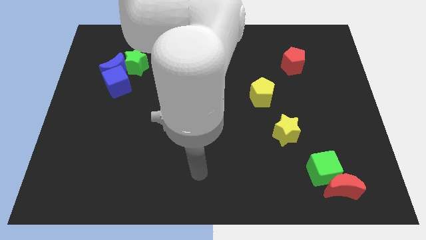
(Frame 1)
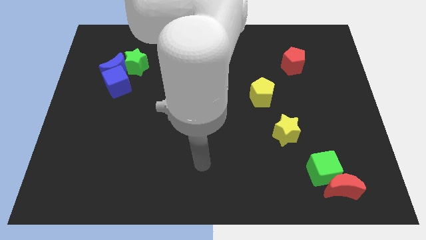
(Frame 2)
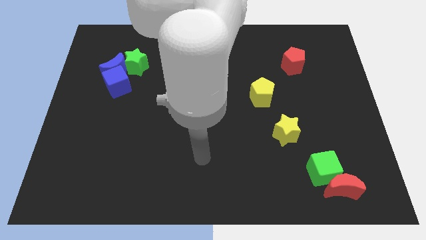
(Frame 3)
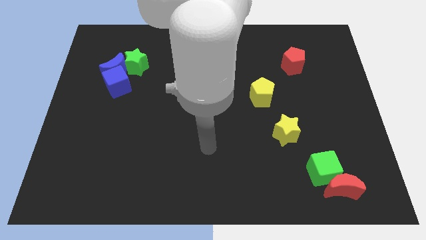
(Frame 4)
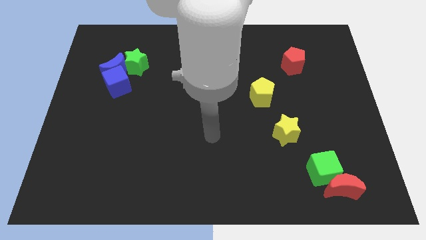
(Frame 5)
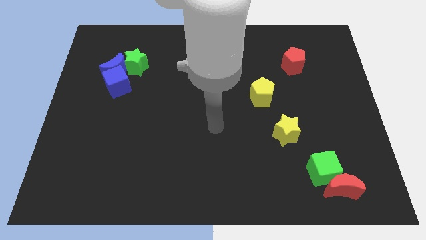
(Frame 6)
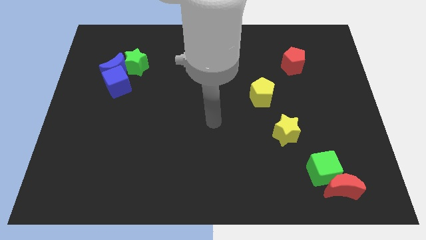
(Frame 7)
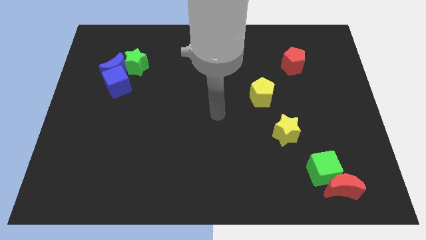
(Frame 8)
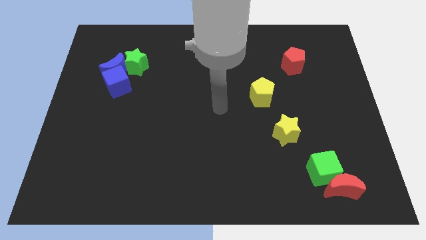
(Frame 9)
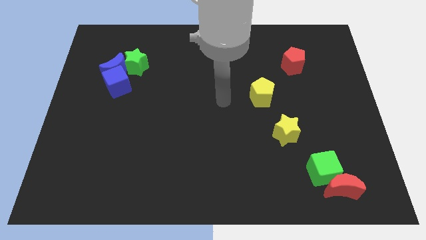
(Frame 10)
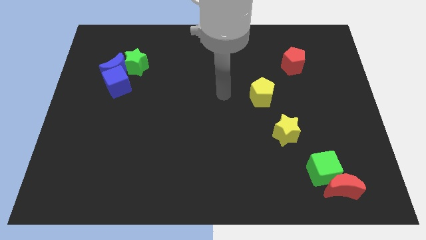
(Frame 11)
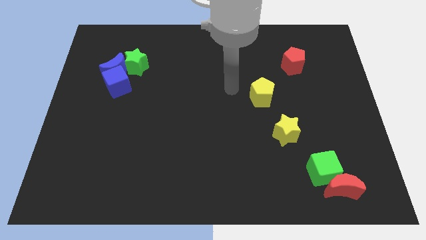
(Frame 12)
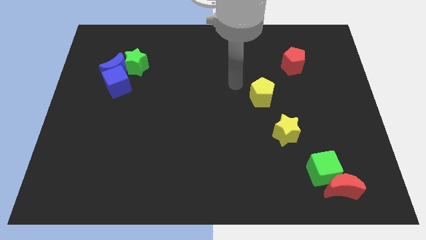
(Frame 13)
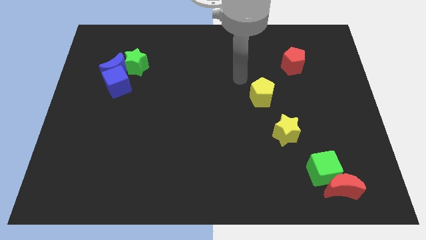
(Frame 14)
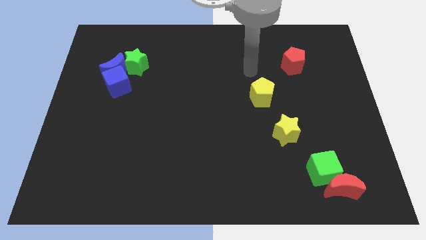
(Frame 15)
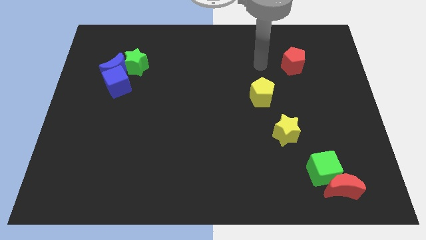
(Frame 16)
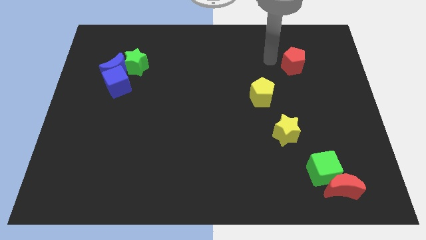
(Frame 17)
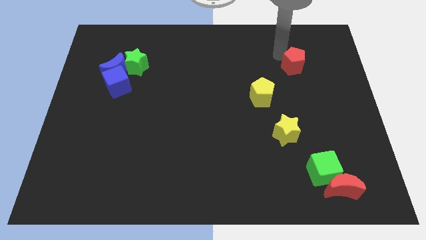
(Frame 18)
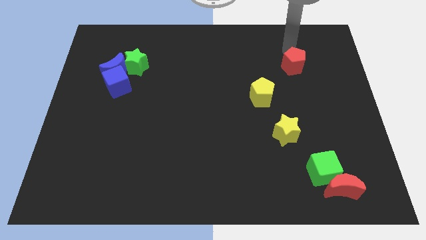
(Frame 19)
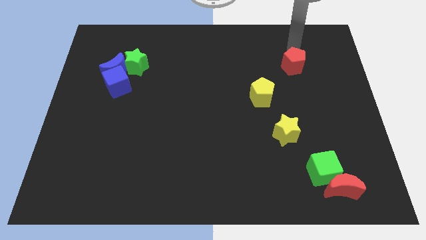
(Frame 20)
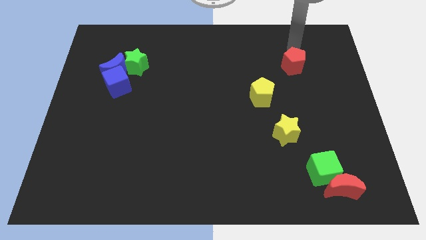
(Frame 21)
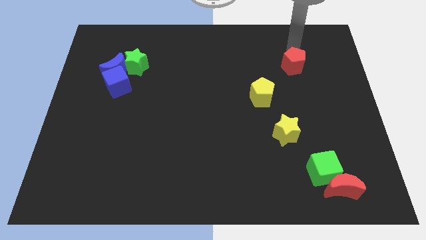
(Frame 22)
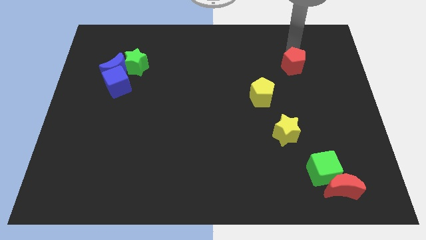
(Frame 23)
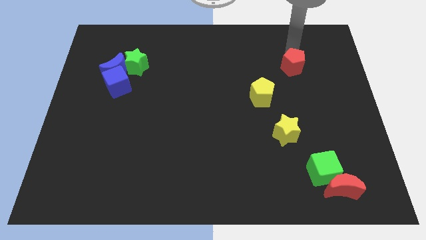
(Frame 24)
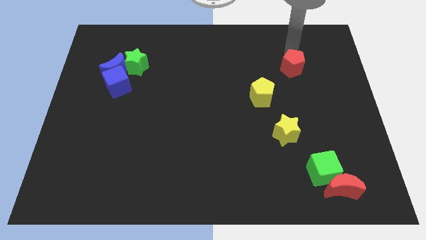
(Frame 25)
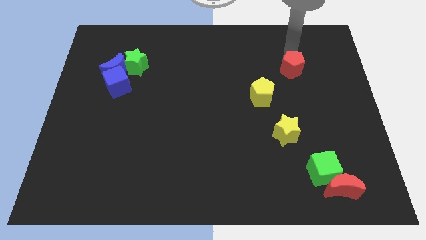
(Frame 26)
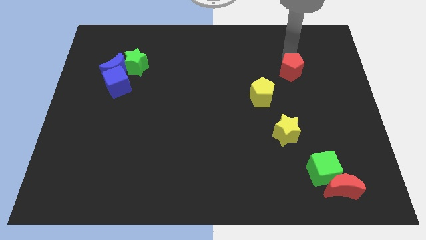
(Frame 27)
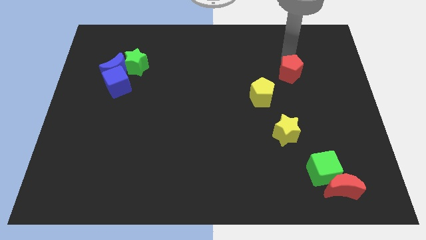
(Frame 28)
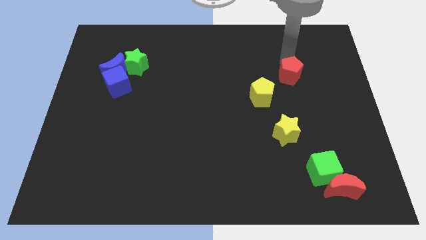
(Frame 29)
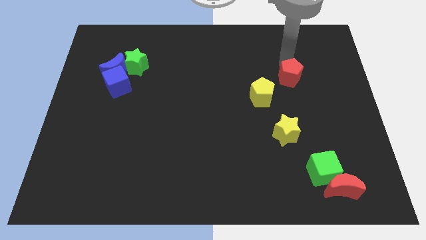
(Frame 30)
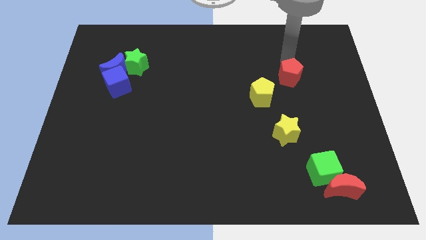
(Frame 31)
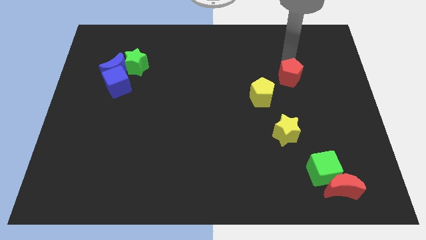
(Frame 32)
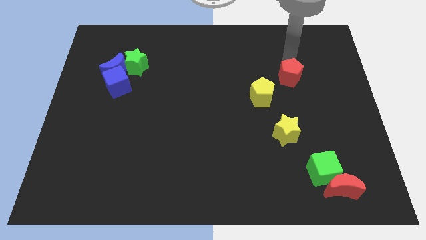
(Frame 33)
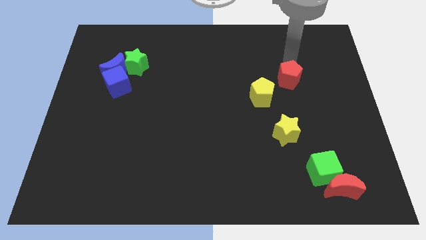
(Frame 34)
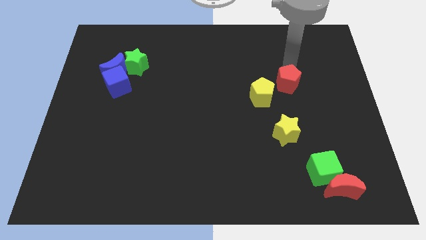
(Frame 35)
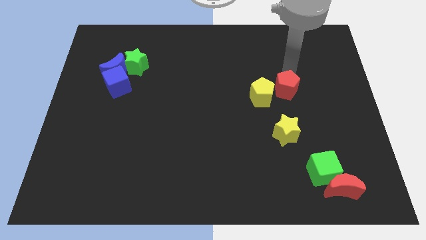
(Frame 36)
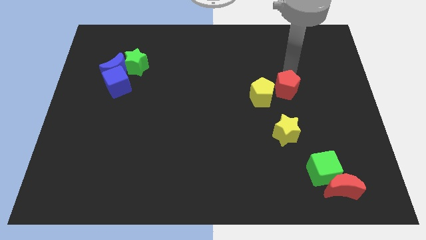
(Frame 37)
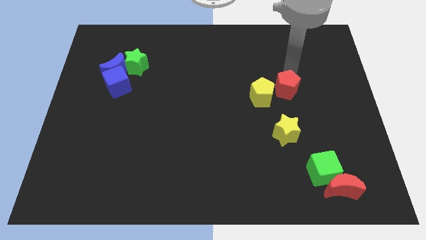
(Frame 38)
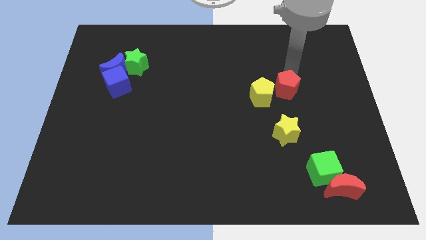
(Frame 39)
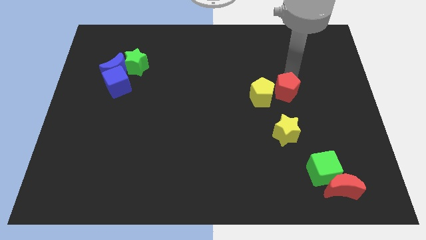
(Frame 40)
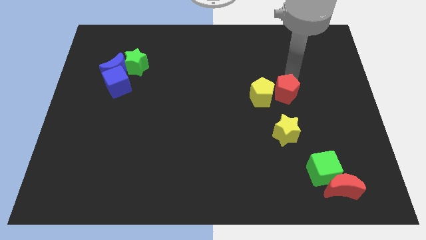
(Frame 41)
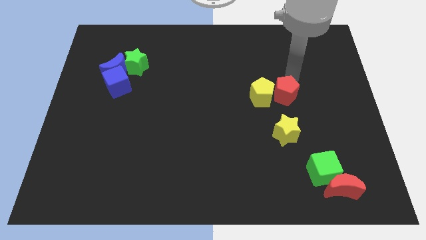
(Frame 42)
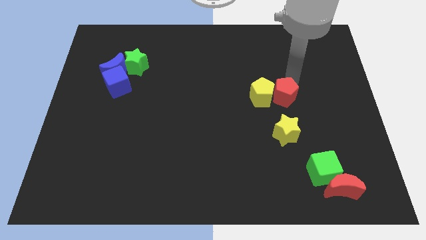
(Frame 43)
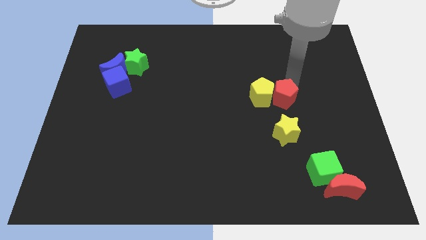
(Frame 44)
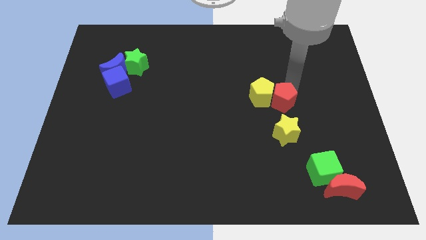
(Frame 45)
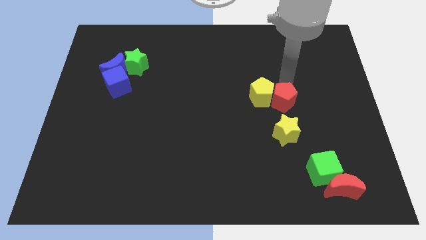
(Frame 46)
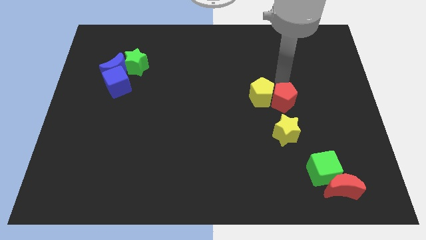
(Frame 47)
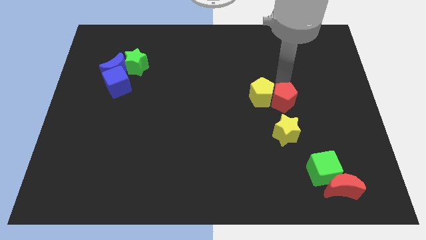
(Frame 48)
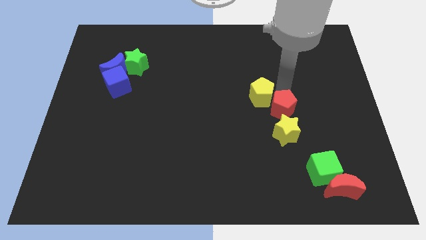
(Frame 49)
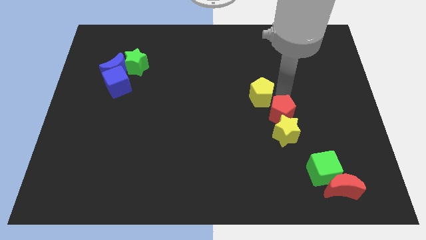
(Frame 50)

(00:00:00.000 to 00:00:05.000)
put the red pentagon towards the yellow star

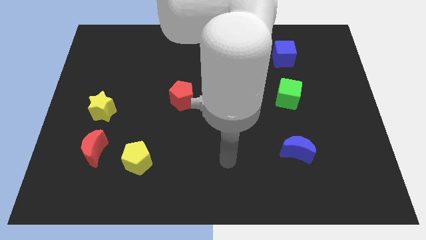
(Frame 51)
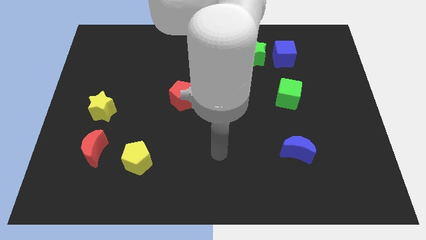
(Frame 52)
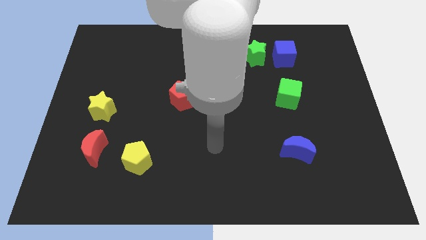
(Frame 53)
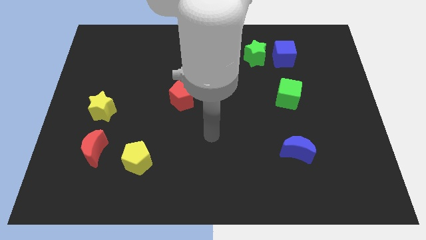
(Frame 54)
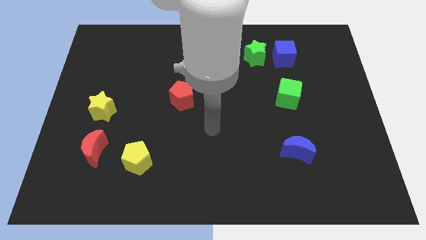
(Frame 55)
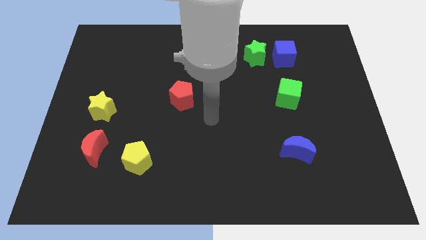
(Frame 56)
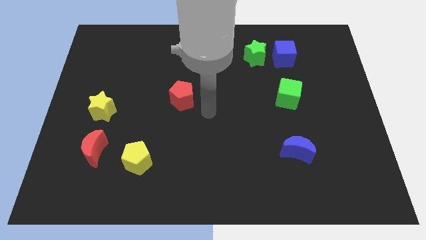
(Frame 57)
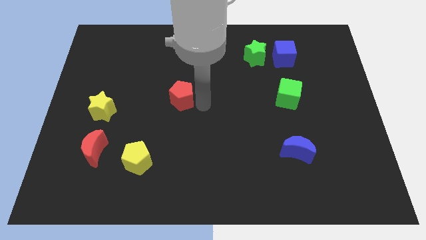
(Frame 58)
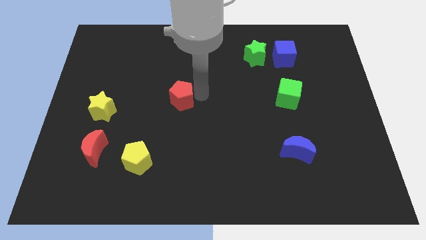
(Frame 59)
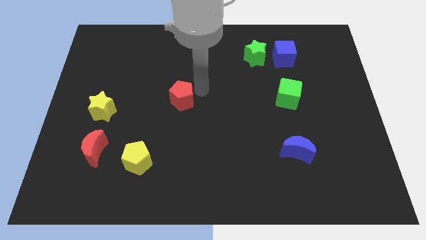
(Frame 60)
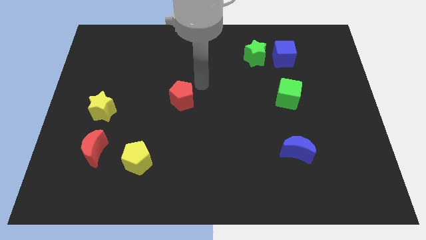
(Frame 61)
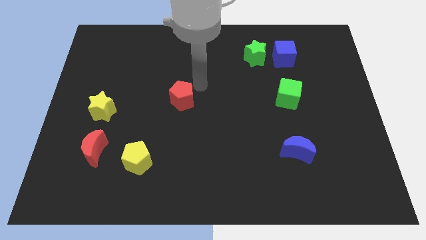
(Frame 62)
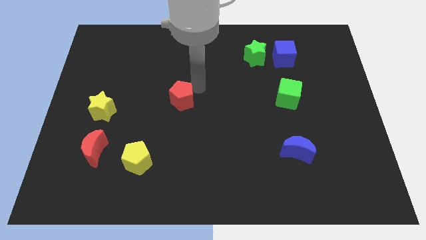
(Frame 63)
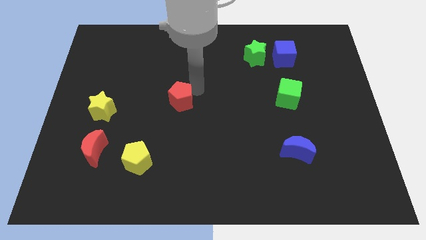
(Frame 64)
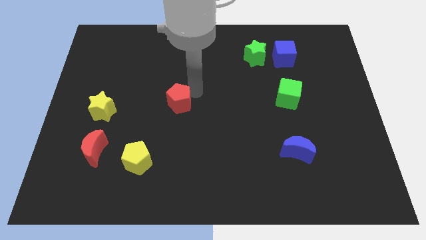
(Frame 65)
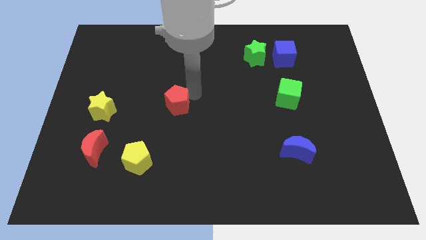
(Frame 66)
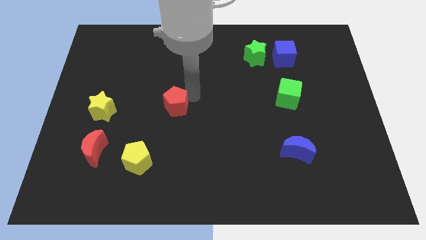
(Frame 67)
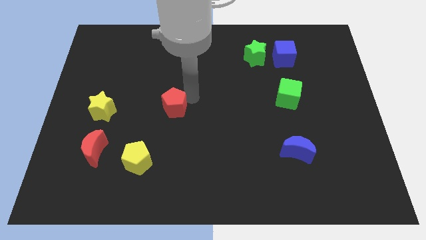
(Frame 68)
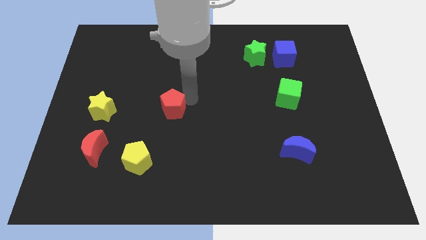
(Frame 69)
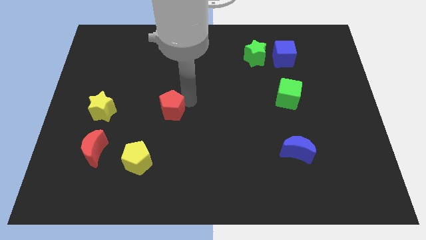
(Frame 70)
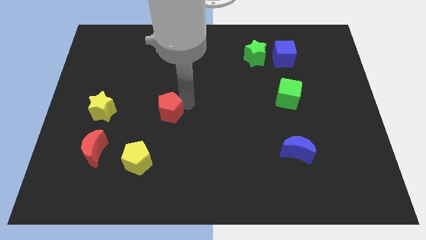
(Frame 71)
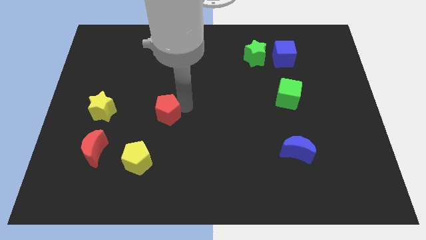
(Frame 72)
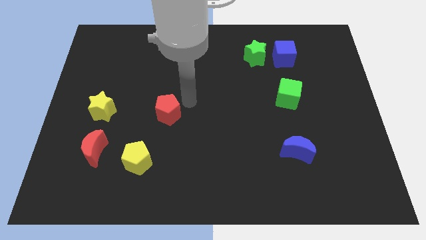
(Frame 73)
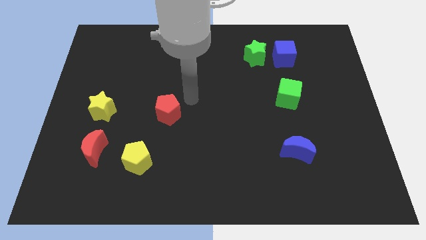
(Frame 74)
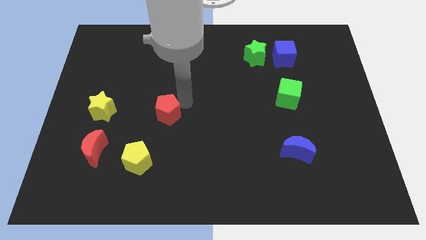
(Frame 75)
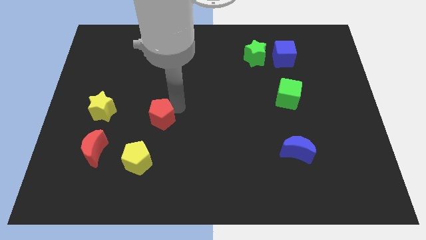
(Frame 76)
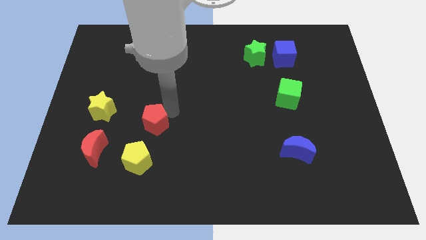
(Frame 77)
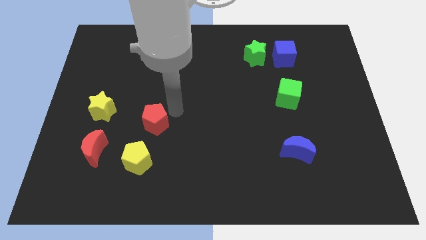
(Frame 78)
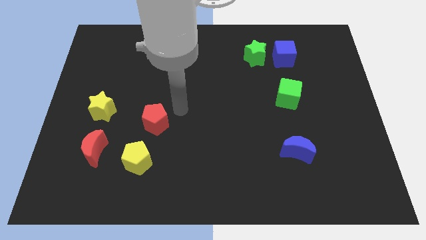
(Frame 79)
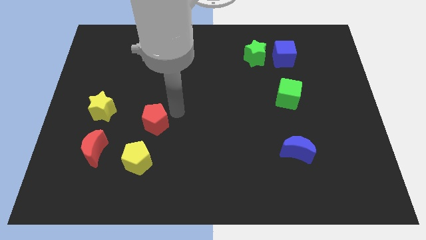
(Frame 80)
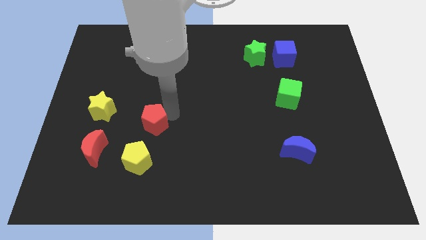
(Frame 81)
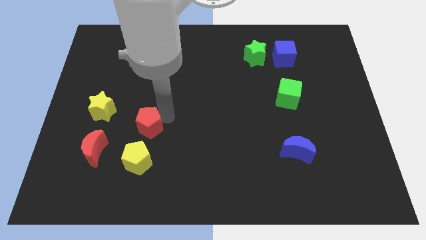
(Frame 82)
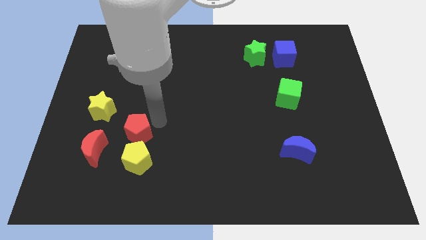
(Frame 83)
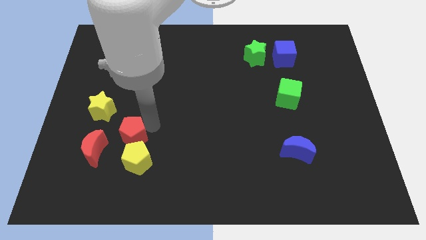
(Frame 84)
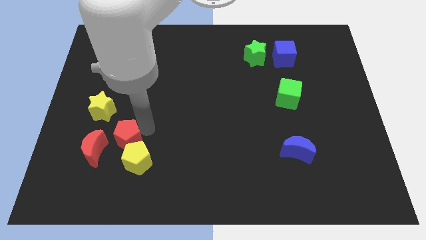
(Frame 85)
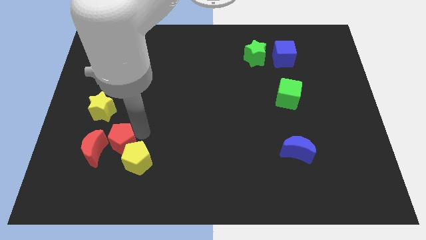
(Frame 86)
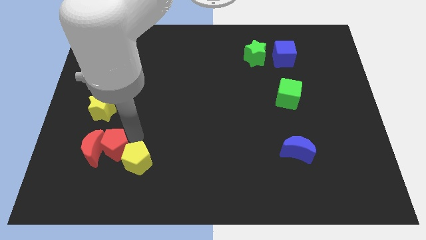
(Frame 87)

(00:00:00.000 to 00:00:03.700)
slide the red pentagon towards the red moon
